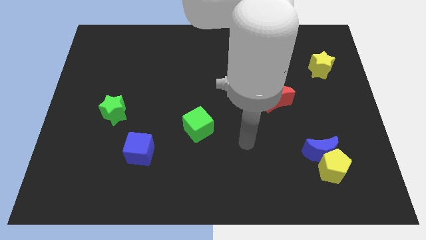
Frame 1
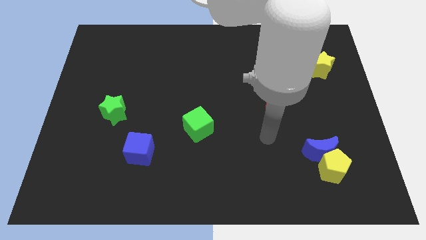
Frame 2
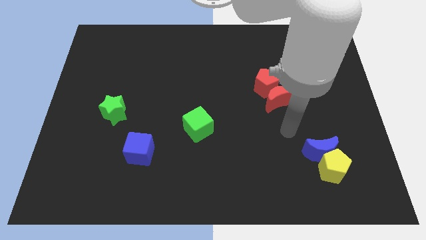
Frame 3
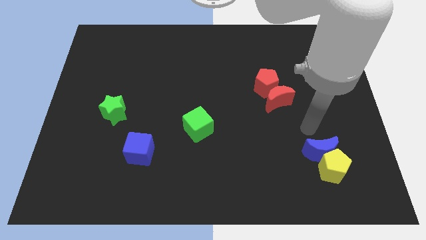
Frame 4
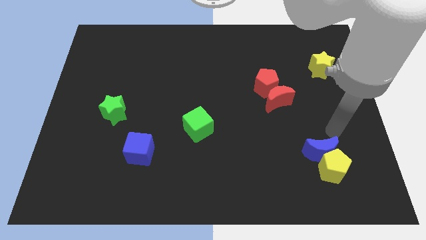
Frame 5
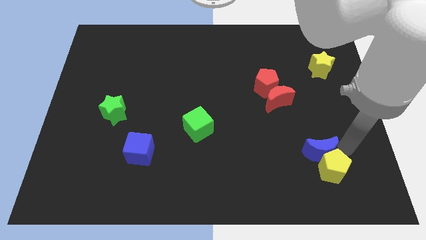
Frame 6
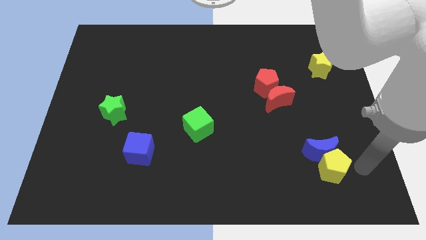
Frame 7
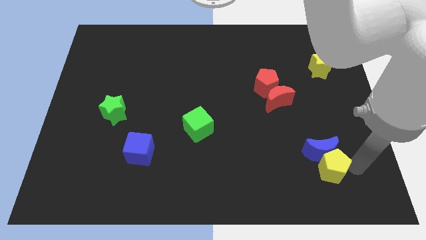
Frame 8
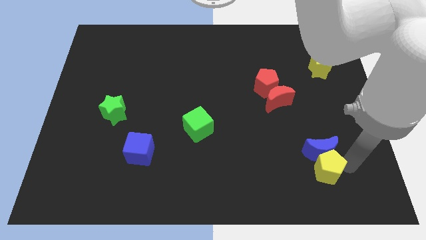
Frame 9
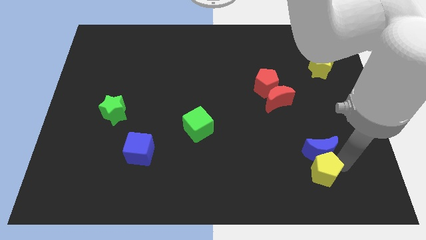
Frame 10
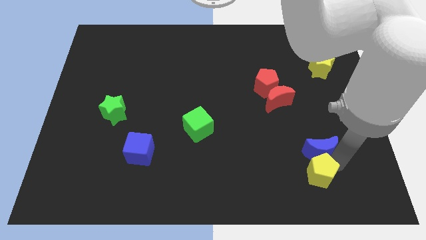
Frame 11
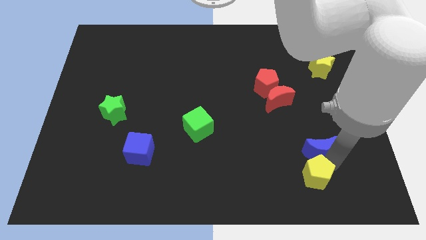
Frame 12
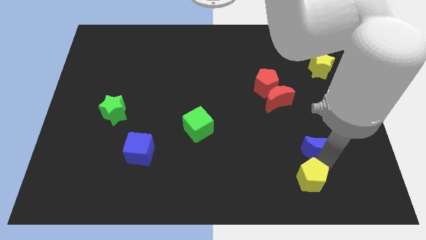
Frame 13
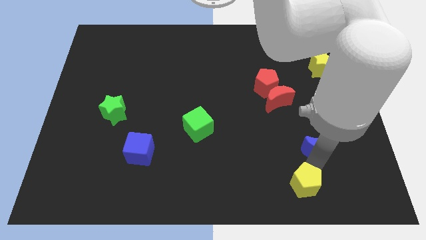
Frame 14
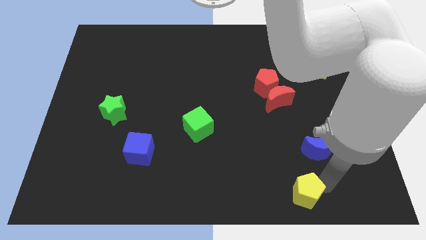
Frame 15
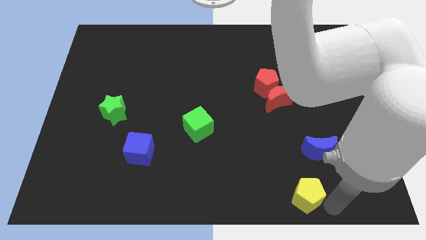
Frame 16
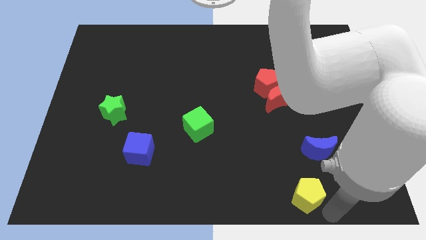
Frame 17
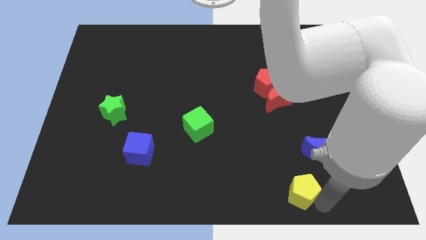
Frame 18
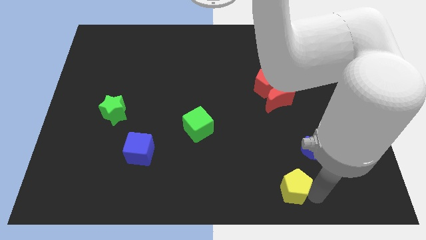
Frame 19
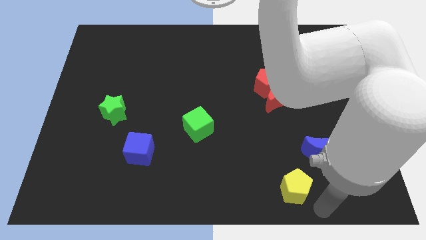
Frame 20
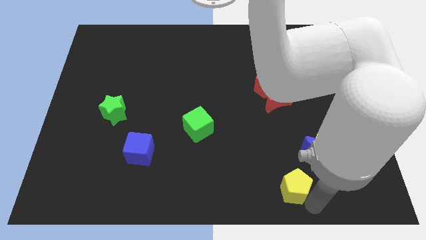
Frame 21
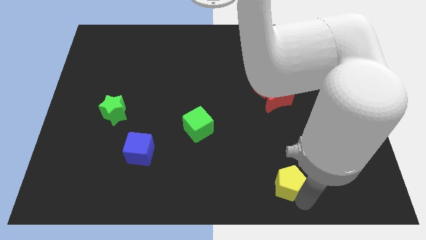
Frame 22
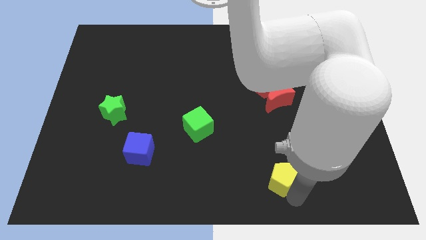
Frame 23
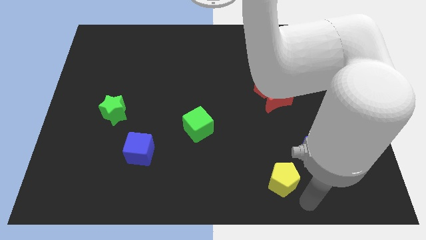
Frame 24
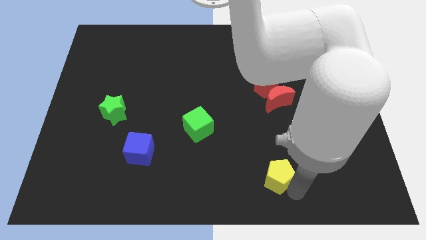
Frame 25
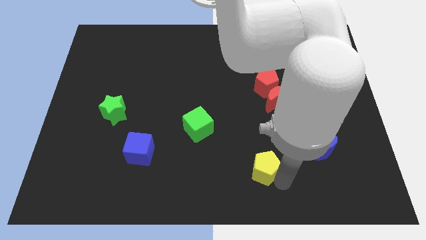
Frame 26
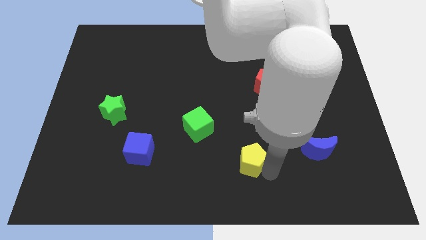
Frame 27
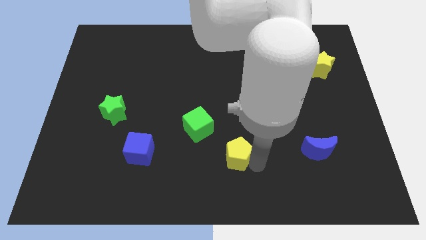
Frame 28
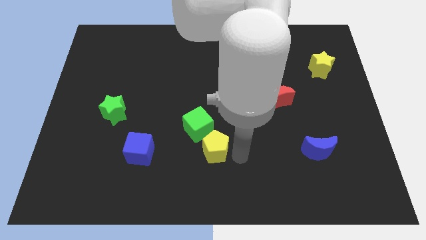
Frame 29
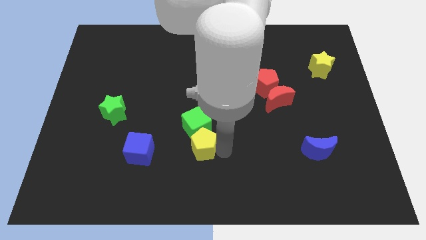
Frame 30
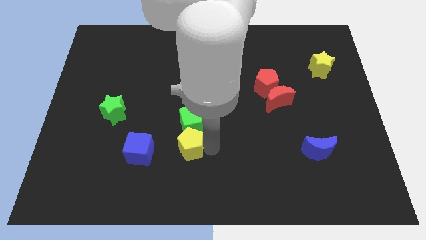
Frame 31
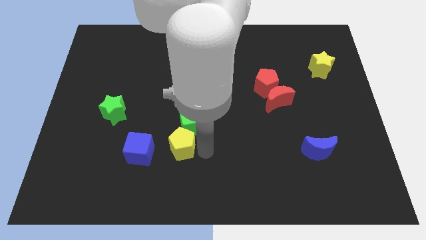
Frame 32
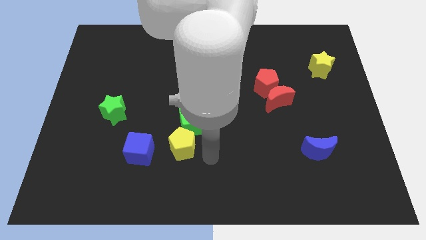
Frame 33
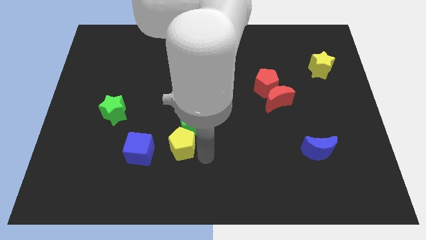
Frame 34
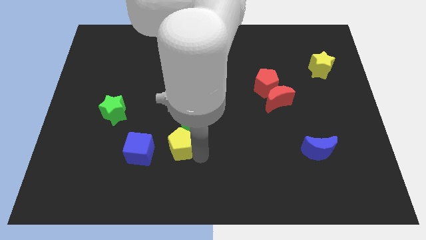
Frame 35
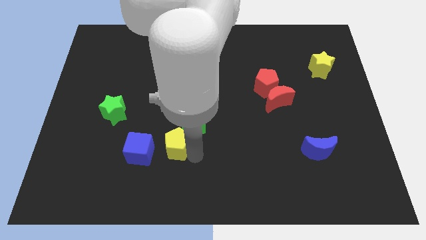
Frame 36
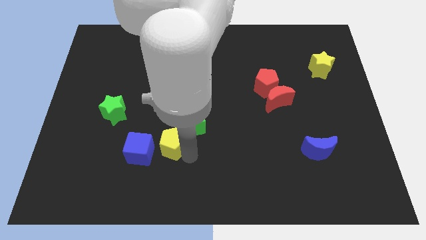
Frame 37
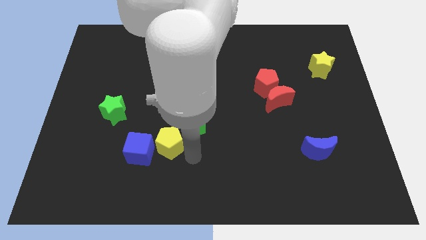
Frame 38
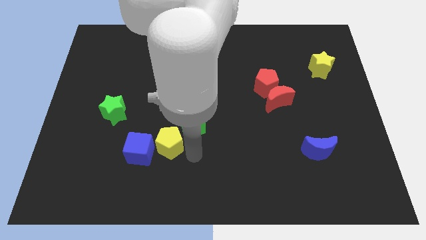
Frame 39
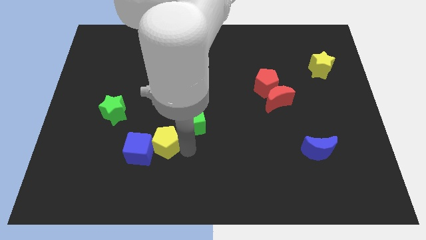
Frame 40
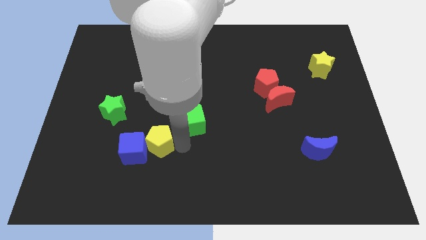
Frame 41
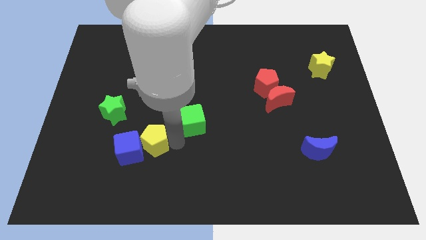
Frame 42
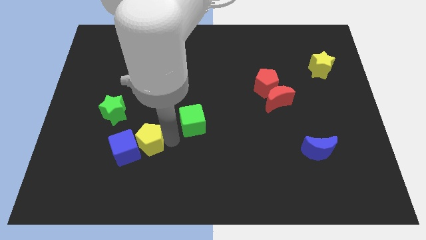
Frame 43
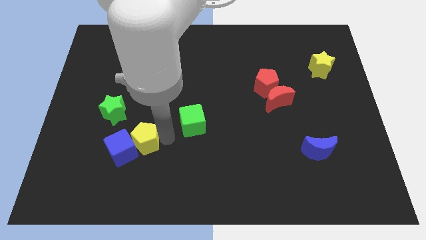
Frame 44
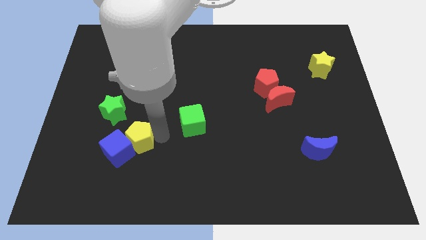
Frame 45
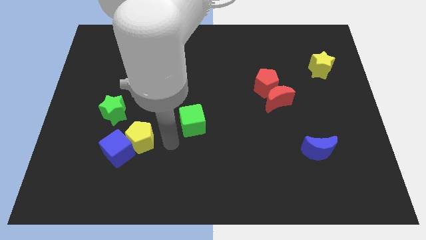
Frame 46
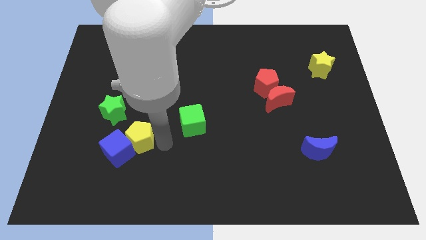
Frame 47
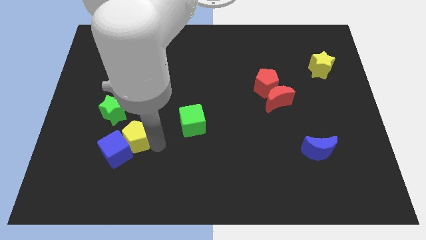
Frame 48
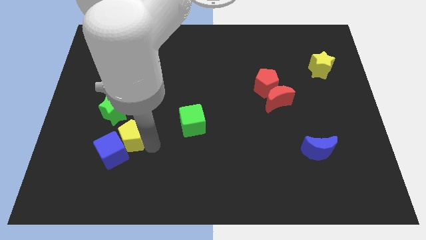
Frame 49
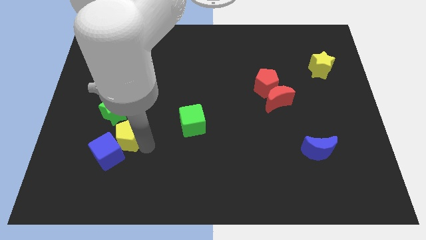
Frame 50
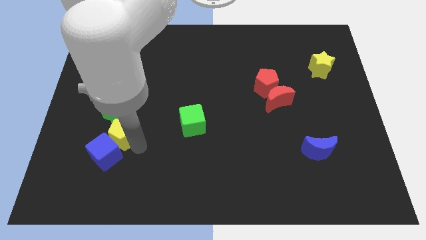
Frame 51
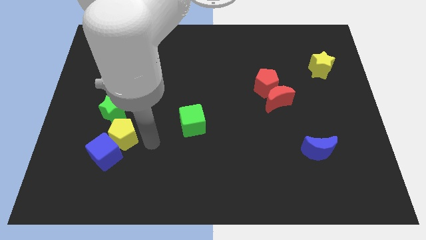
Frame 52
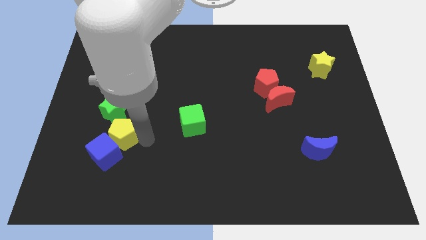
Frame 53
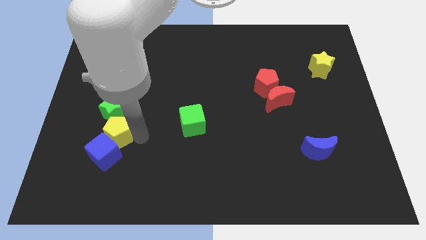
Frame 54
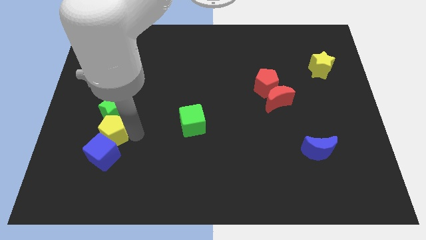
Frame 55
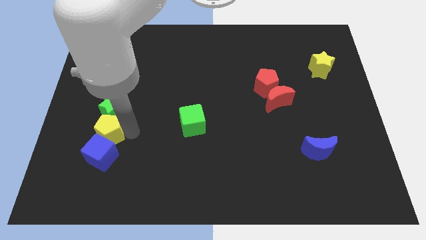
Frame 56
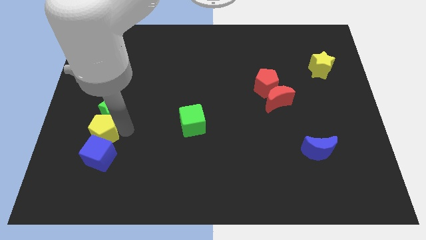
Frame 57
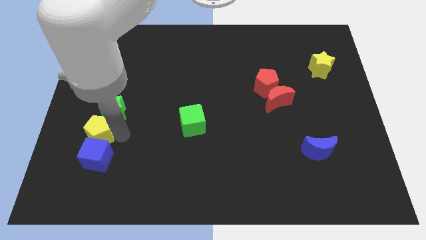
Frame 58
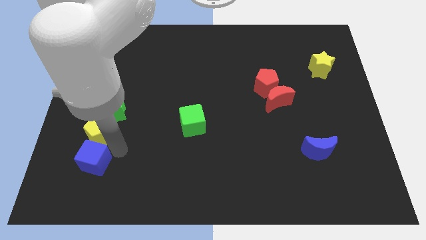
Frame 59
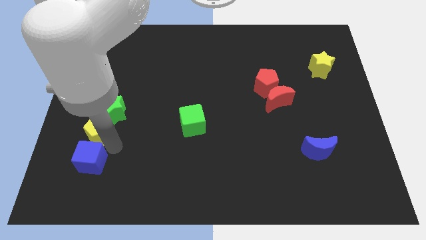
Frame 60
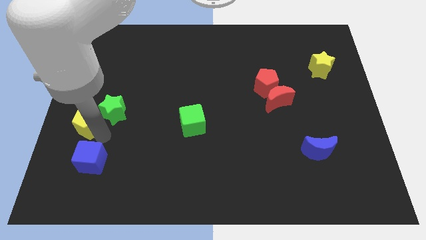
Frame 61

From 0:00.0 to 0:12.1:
slide the yellow pentagon to the center left

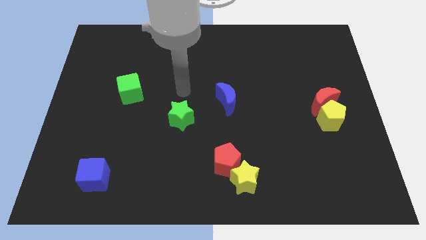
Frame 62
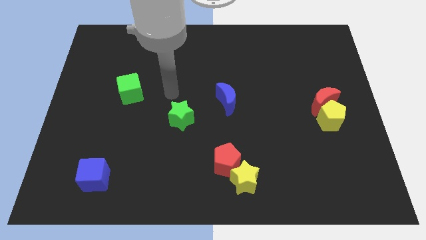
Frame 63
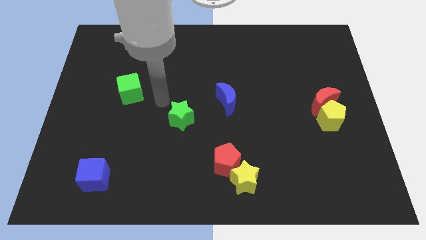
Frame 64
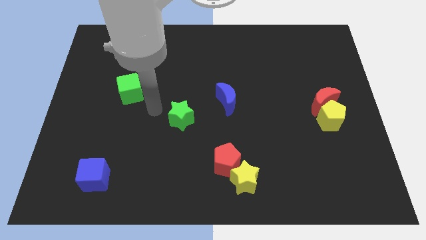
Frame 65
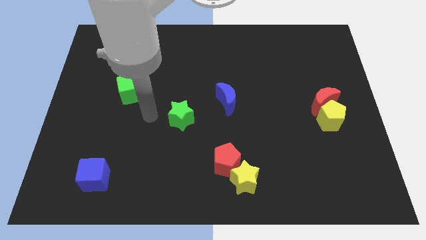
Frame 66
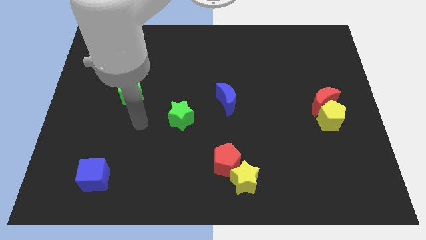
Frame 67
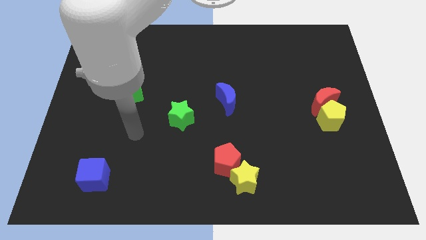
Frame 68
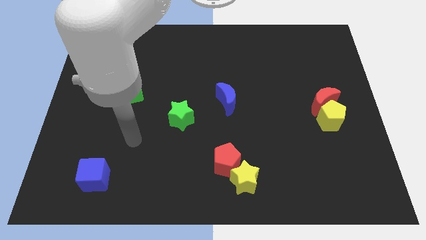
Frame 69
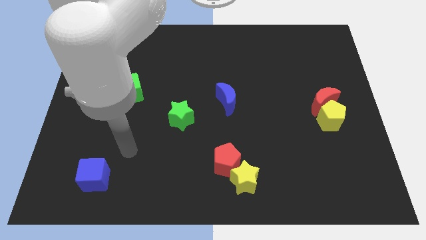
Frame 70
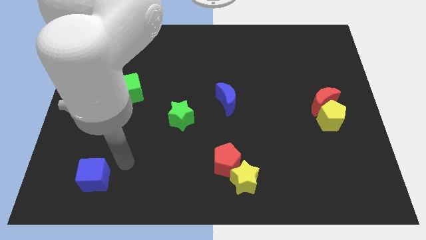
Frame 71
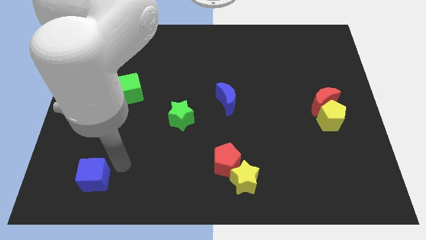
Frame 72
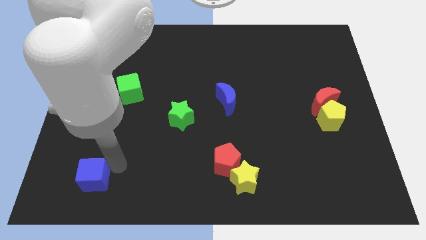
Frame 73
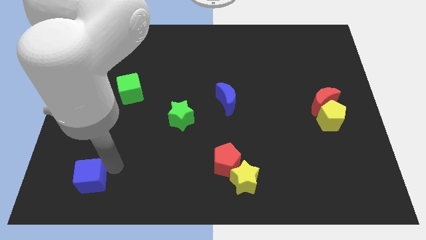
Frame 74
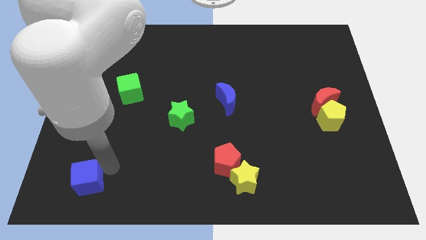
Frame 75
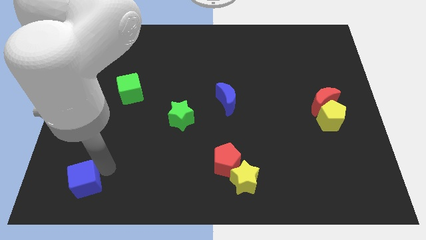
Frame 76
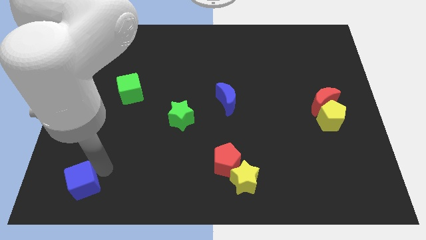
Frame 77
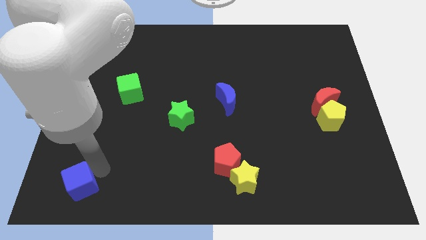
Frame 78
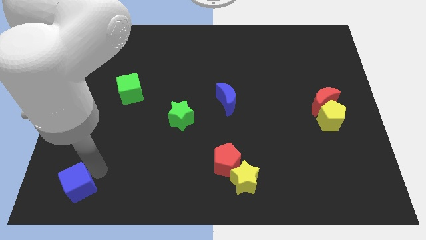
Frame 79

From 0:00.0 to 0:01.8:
put the blue cube to the lower left corner
